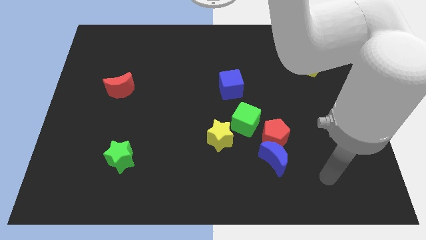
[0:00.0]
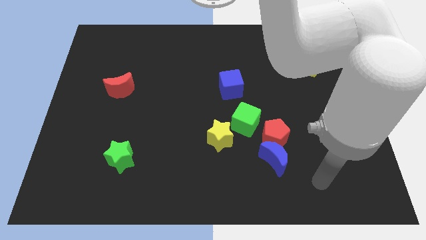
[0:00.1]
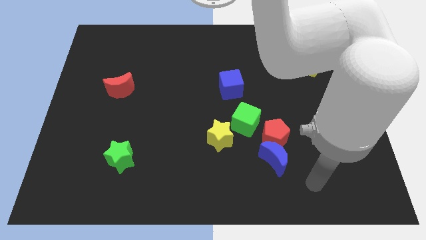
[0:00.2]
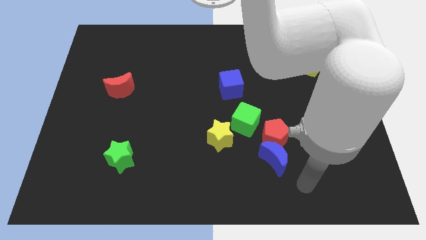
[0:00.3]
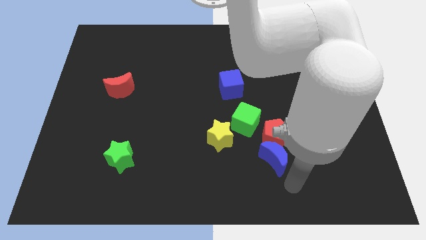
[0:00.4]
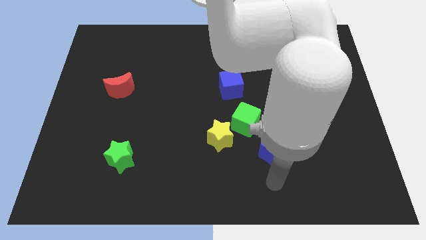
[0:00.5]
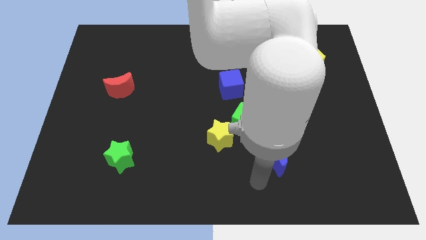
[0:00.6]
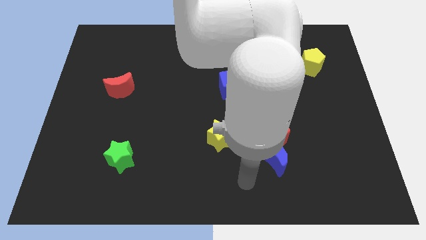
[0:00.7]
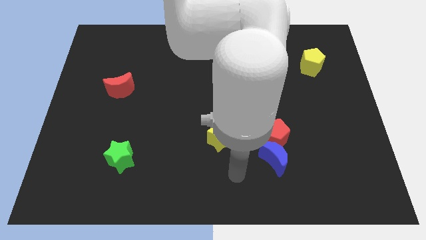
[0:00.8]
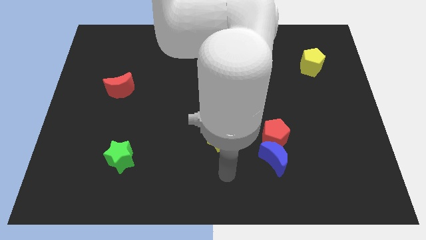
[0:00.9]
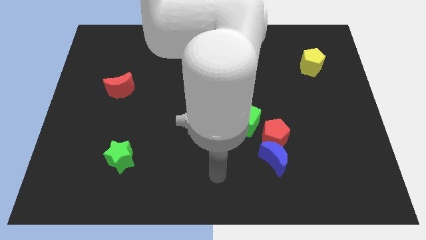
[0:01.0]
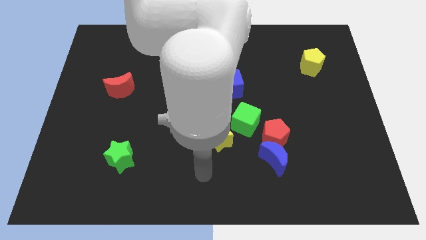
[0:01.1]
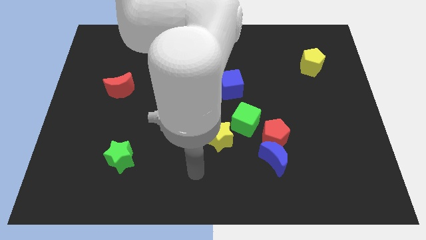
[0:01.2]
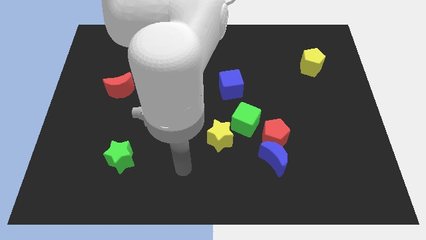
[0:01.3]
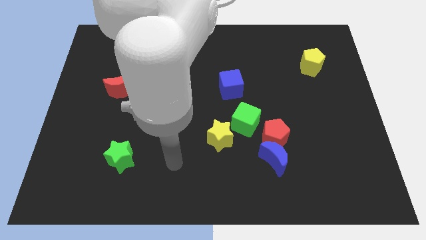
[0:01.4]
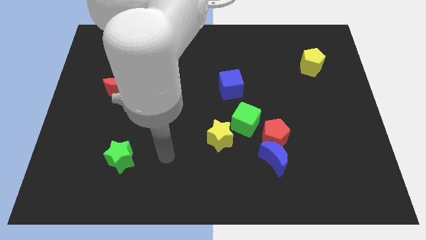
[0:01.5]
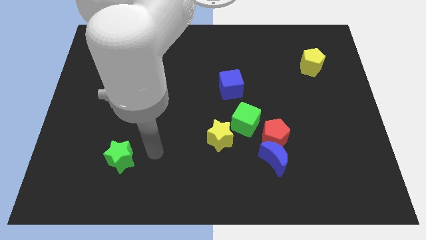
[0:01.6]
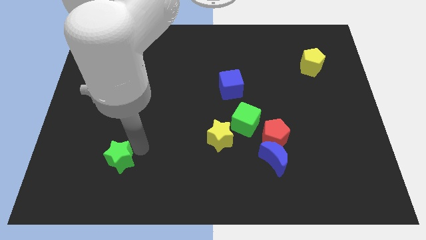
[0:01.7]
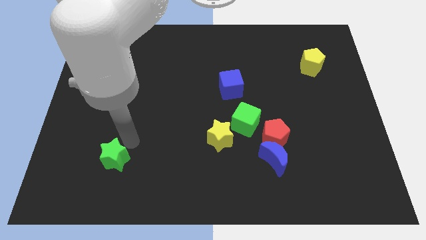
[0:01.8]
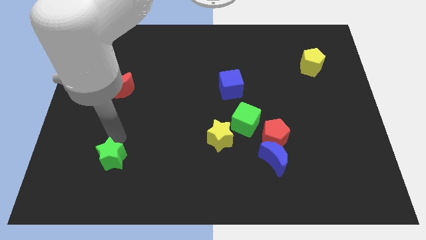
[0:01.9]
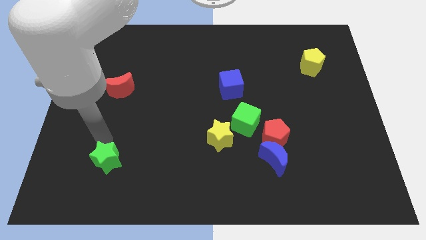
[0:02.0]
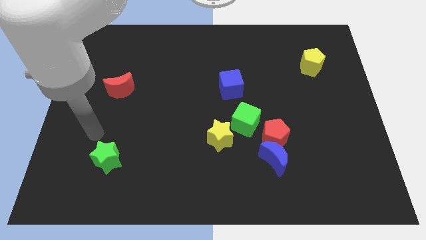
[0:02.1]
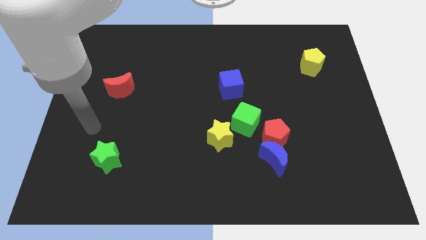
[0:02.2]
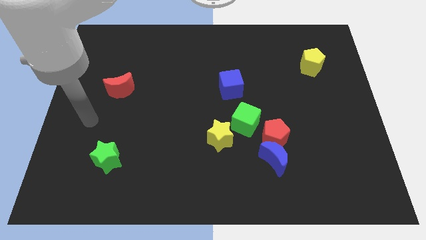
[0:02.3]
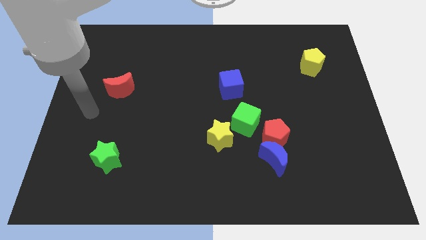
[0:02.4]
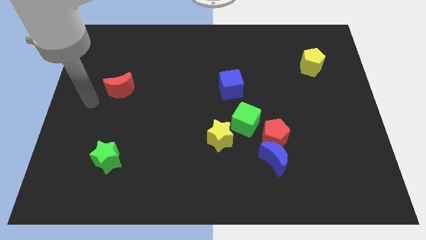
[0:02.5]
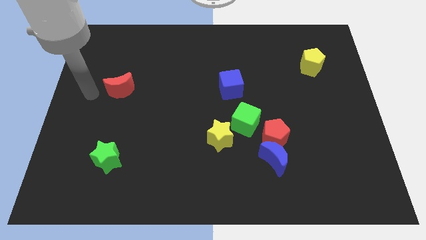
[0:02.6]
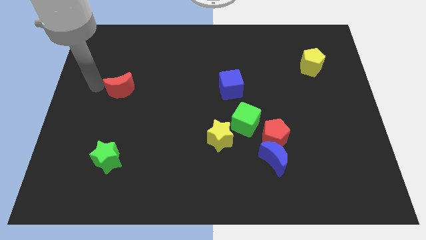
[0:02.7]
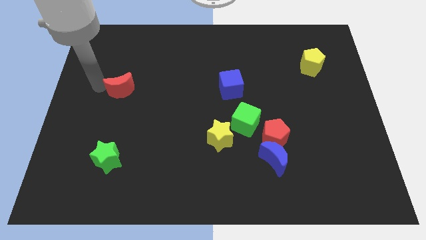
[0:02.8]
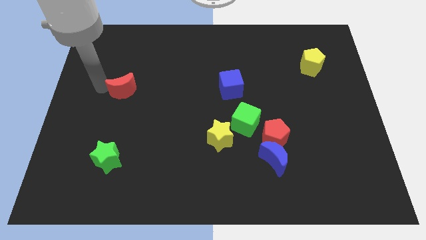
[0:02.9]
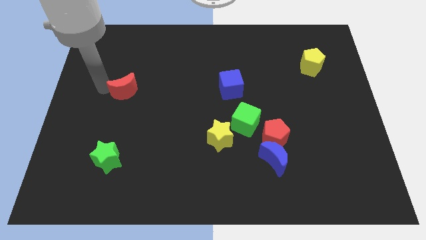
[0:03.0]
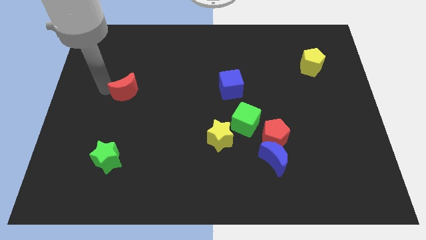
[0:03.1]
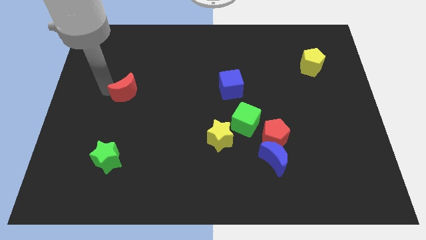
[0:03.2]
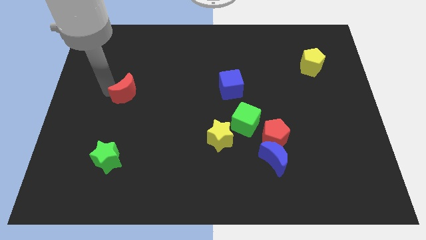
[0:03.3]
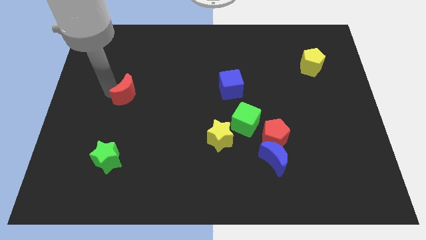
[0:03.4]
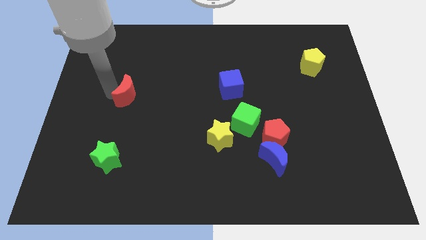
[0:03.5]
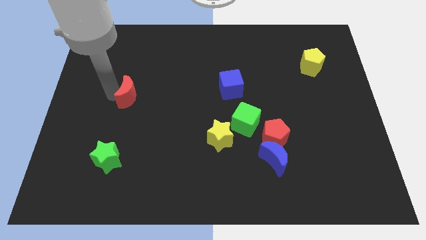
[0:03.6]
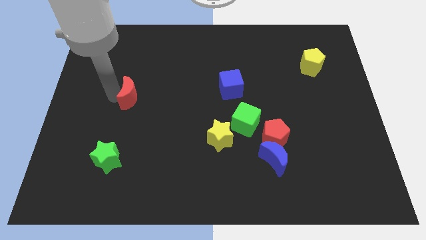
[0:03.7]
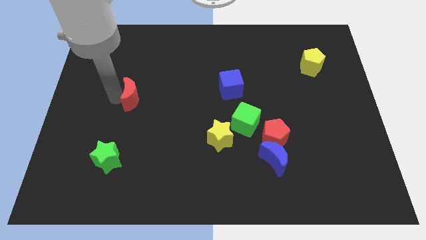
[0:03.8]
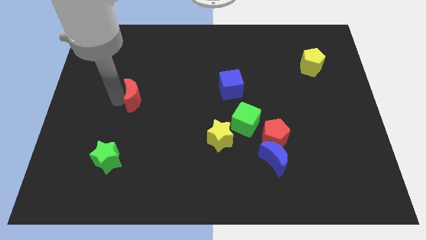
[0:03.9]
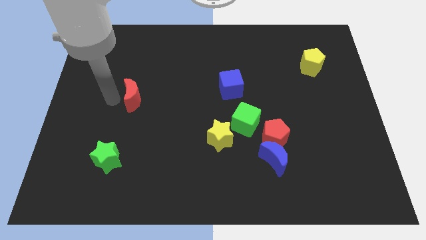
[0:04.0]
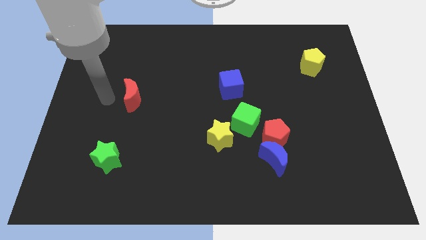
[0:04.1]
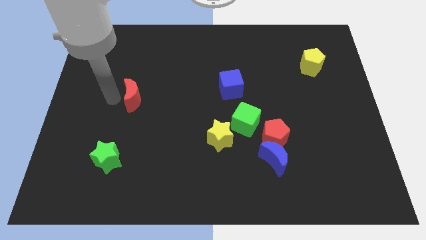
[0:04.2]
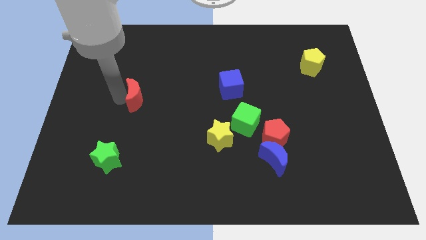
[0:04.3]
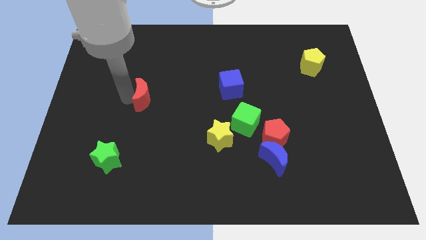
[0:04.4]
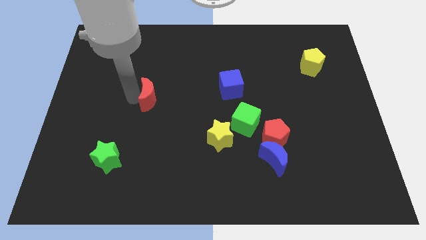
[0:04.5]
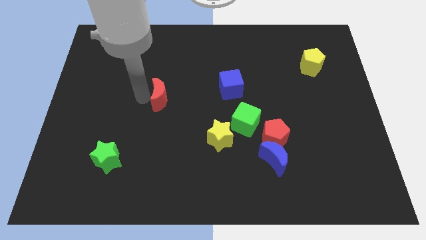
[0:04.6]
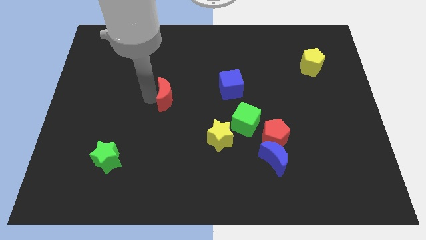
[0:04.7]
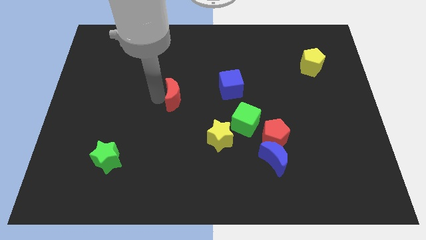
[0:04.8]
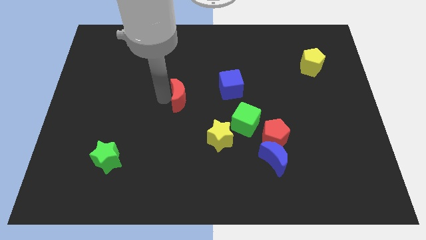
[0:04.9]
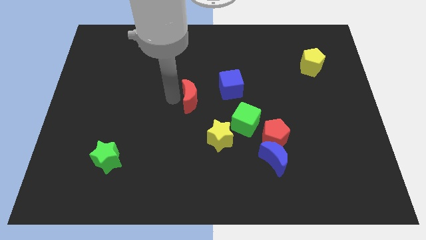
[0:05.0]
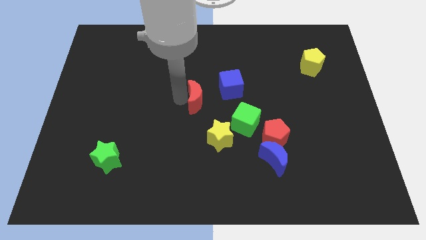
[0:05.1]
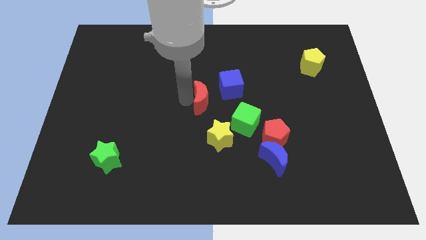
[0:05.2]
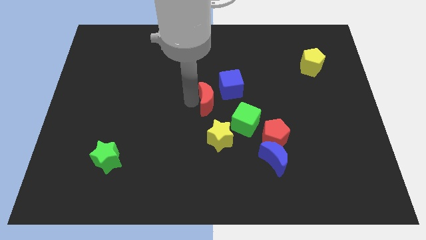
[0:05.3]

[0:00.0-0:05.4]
move the red moon to the right

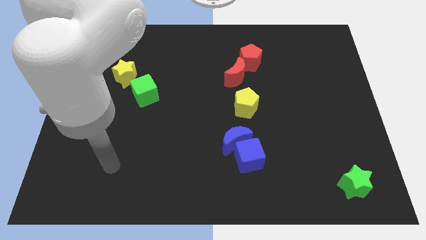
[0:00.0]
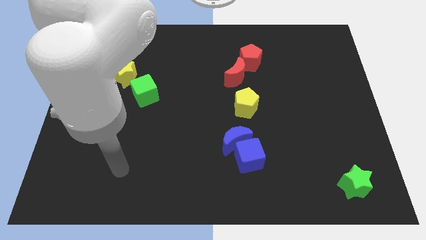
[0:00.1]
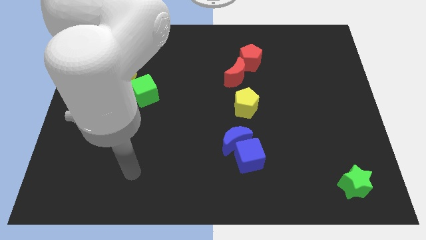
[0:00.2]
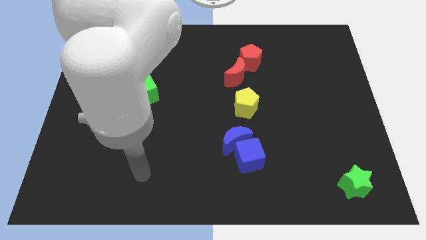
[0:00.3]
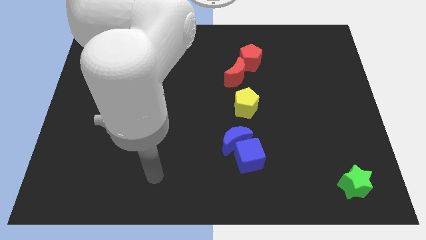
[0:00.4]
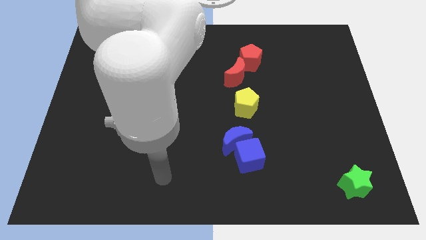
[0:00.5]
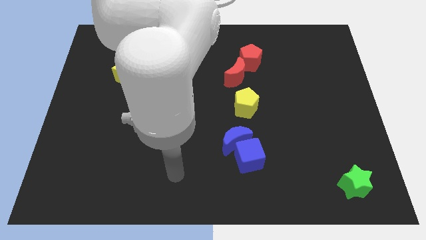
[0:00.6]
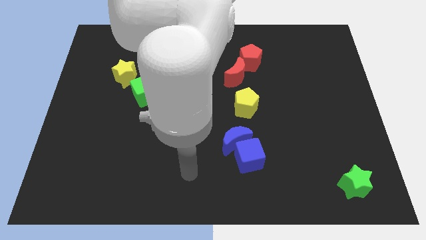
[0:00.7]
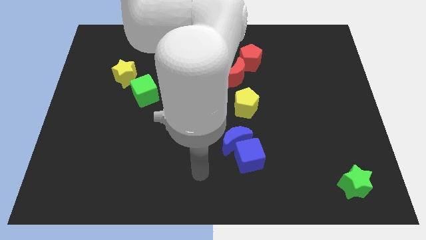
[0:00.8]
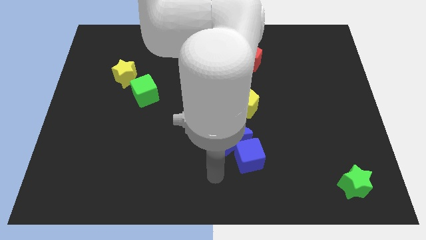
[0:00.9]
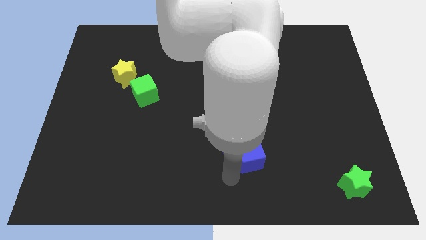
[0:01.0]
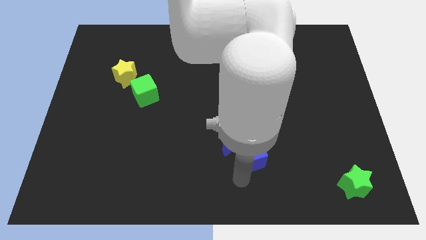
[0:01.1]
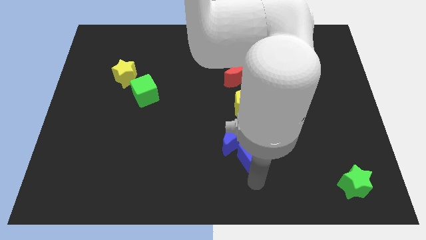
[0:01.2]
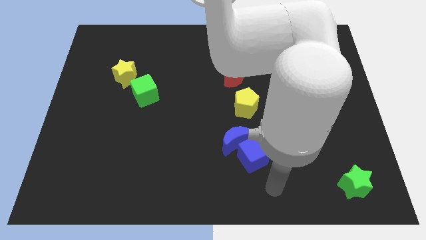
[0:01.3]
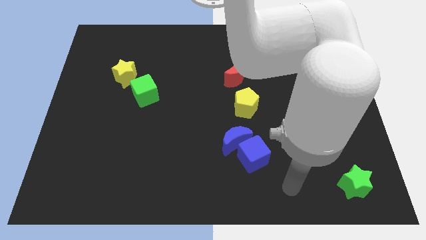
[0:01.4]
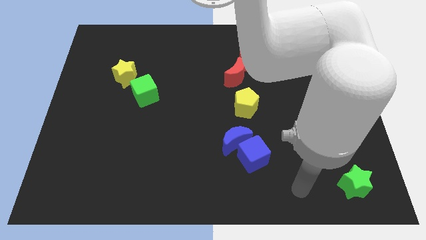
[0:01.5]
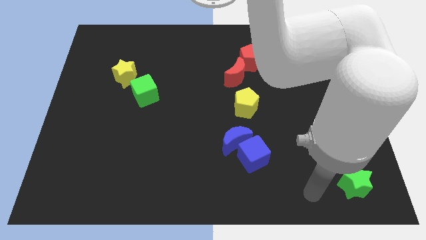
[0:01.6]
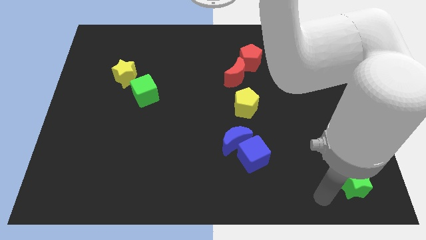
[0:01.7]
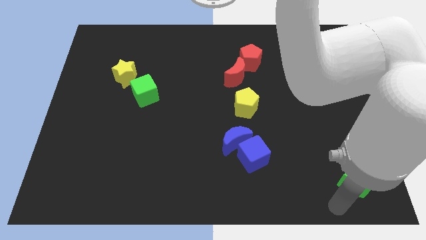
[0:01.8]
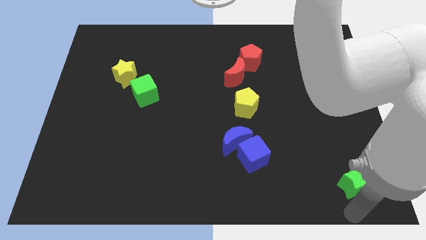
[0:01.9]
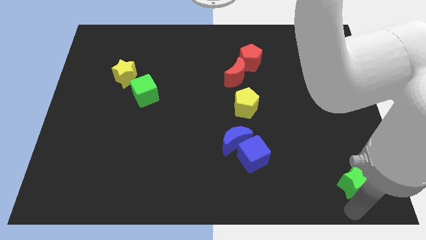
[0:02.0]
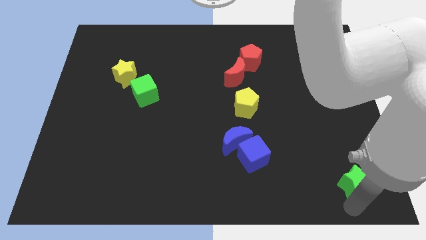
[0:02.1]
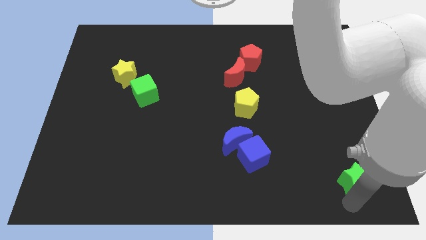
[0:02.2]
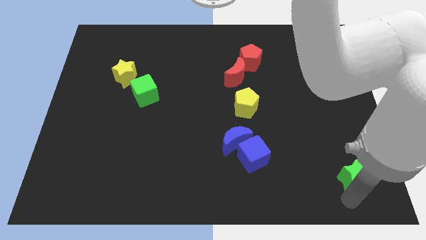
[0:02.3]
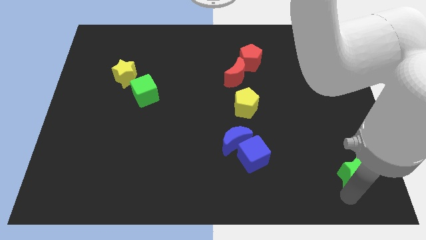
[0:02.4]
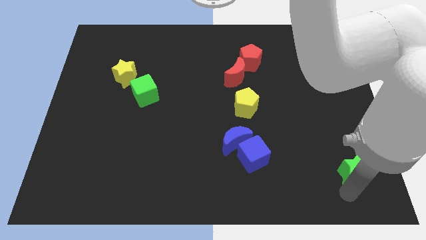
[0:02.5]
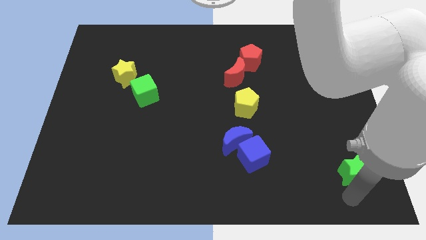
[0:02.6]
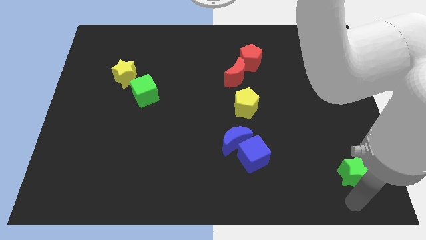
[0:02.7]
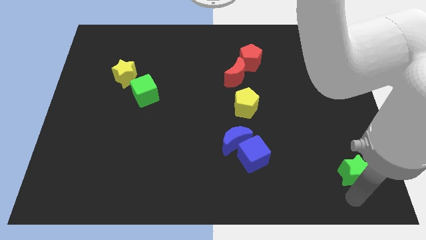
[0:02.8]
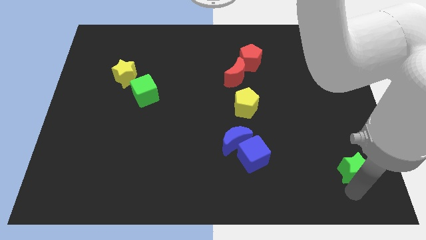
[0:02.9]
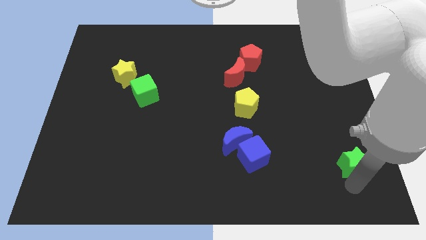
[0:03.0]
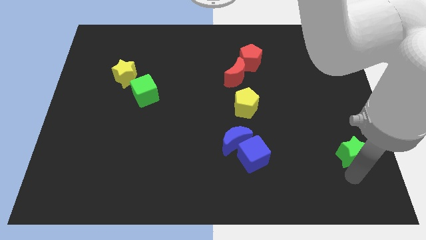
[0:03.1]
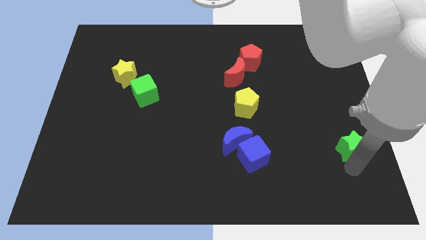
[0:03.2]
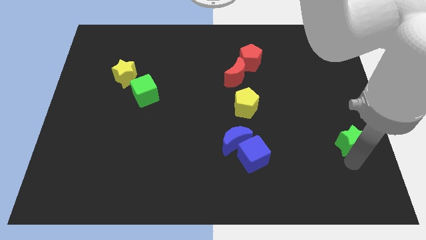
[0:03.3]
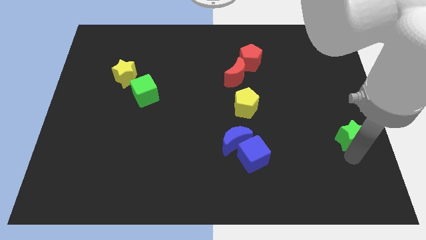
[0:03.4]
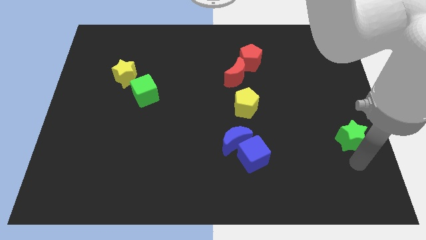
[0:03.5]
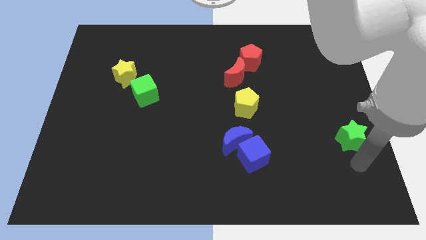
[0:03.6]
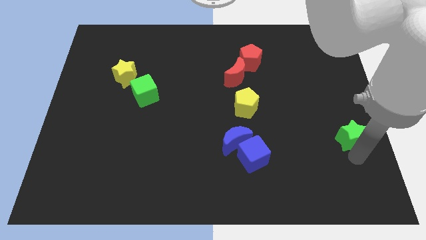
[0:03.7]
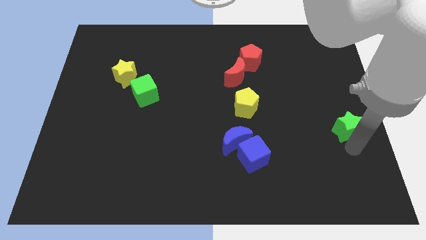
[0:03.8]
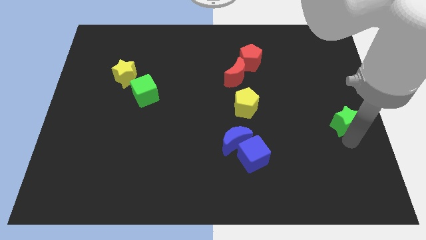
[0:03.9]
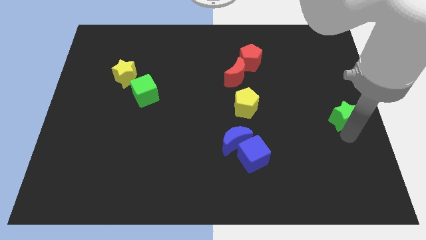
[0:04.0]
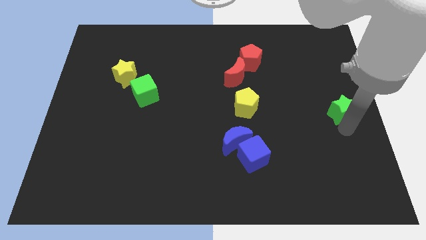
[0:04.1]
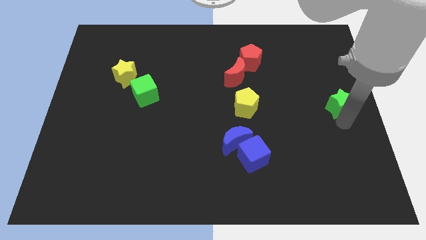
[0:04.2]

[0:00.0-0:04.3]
move the green star up
